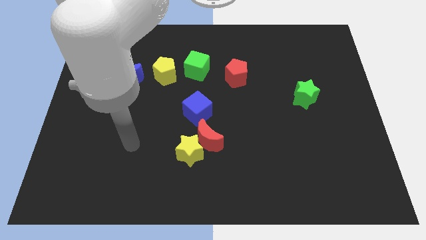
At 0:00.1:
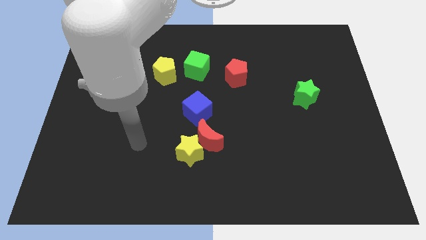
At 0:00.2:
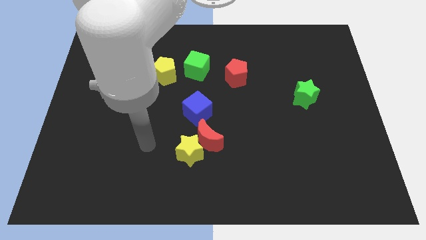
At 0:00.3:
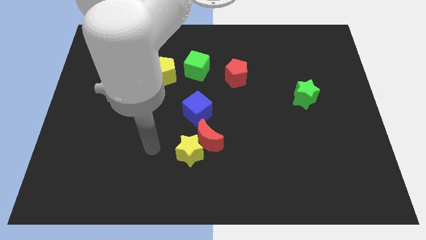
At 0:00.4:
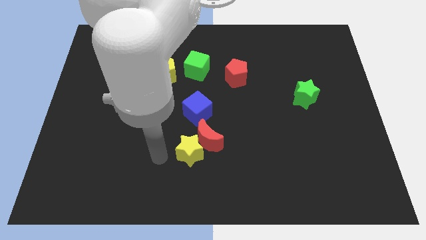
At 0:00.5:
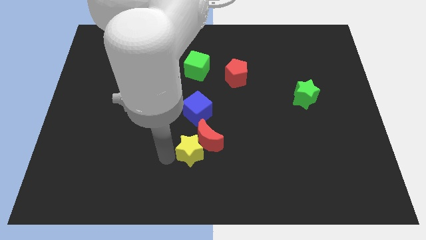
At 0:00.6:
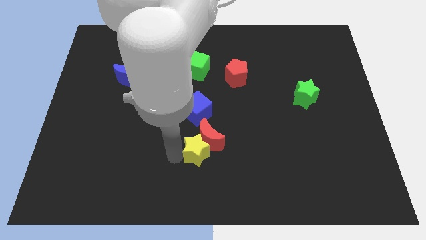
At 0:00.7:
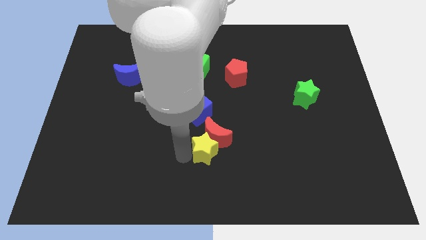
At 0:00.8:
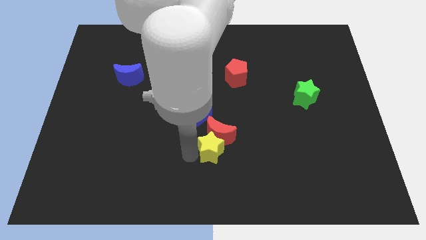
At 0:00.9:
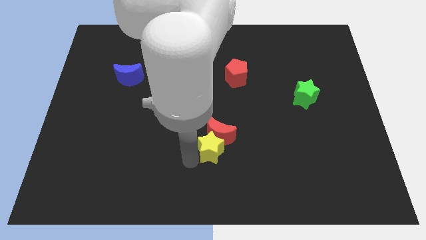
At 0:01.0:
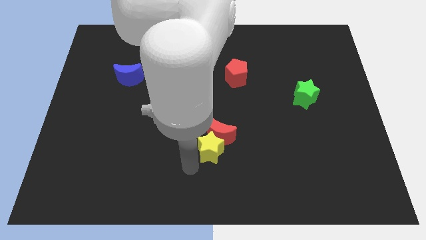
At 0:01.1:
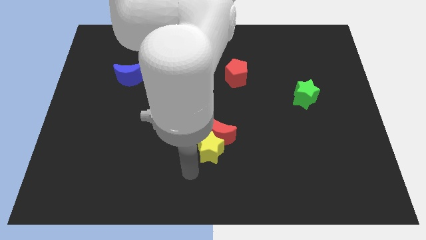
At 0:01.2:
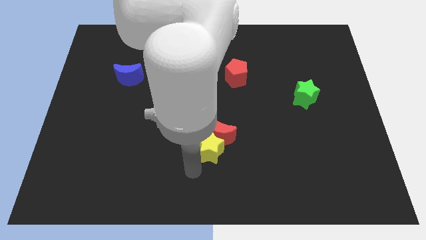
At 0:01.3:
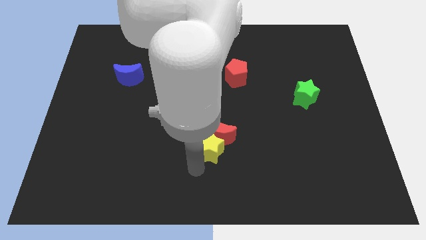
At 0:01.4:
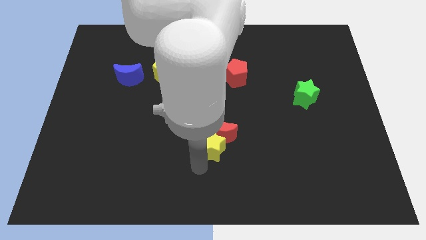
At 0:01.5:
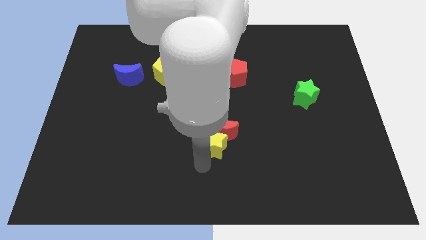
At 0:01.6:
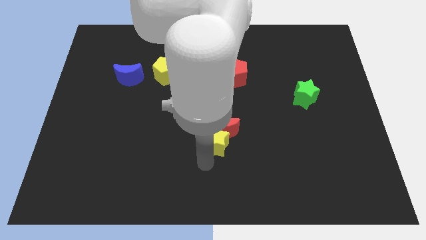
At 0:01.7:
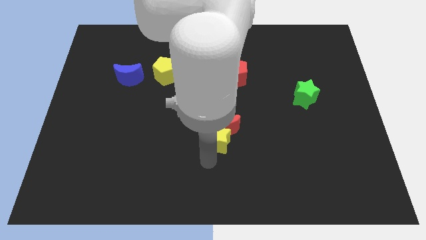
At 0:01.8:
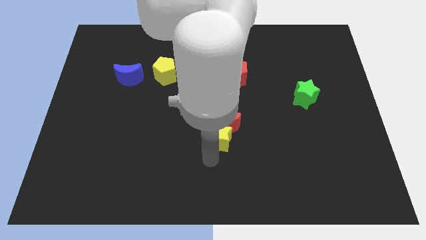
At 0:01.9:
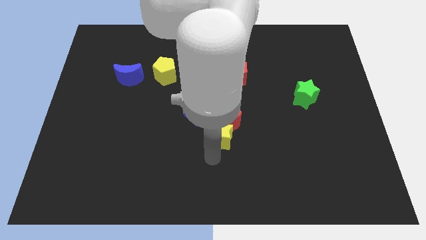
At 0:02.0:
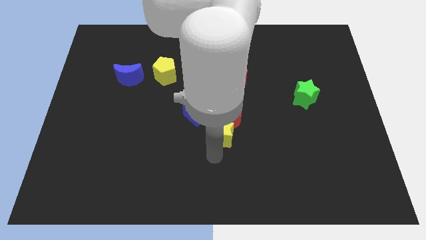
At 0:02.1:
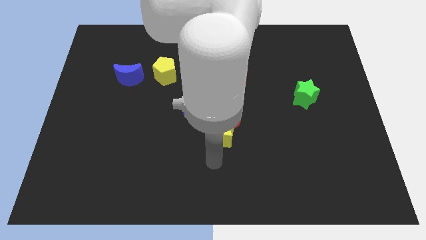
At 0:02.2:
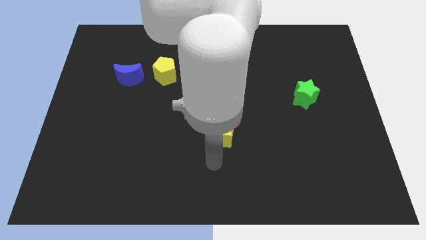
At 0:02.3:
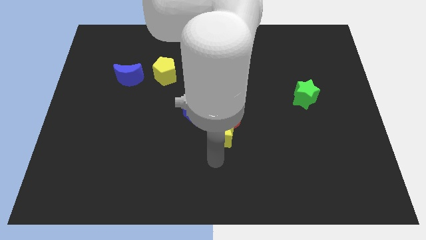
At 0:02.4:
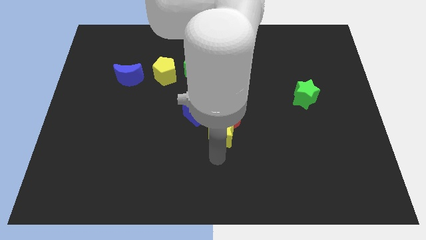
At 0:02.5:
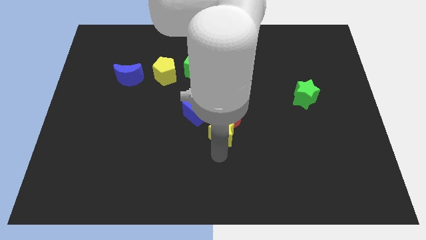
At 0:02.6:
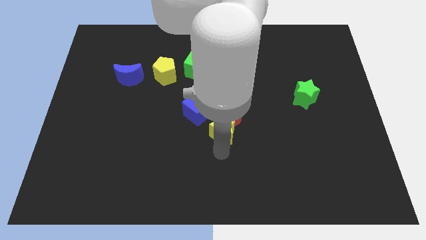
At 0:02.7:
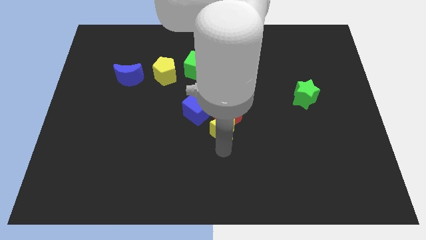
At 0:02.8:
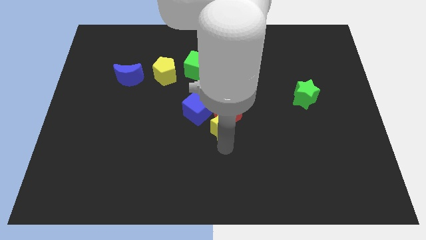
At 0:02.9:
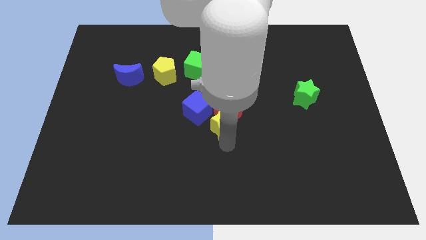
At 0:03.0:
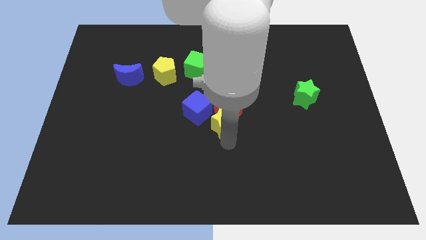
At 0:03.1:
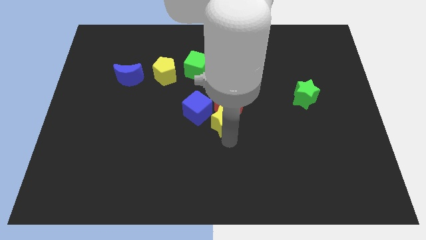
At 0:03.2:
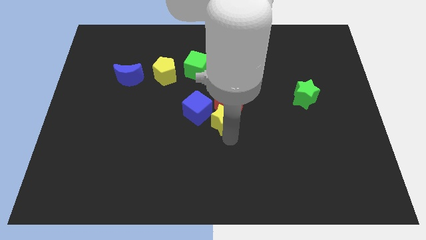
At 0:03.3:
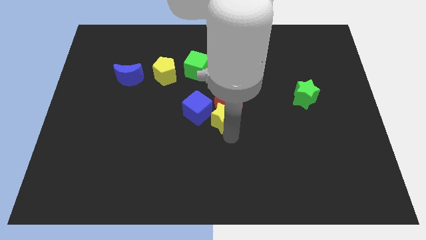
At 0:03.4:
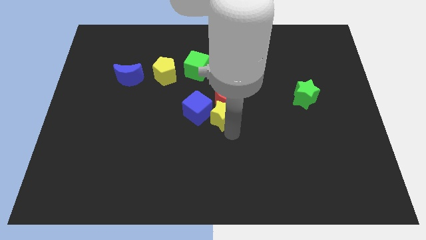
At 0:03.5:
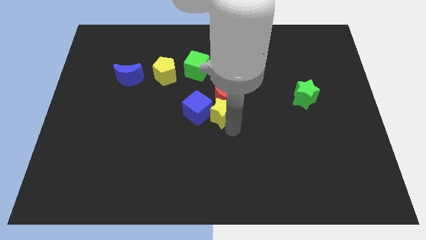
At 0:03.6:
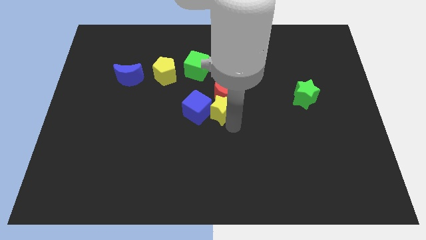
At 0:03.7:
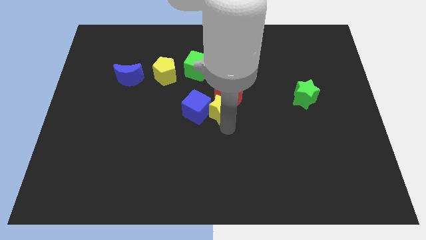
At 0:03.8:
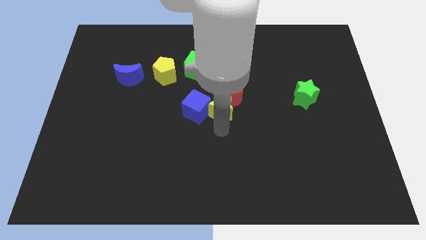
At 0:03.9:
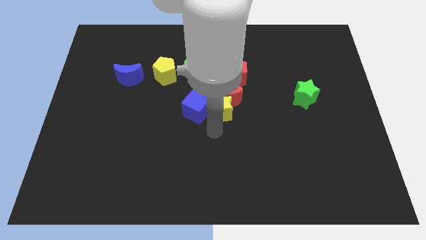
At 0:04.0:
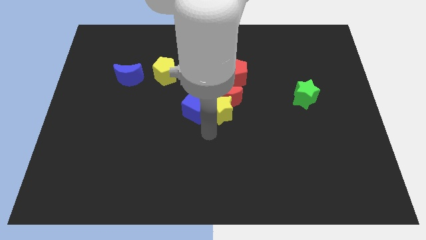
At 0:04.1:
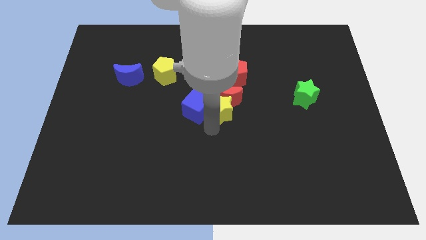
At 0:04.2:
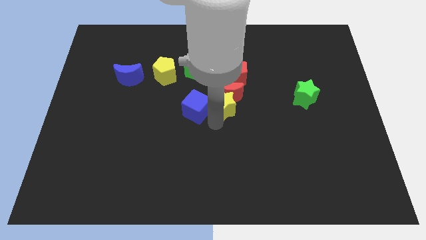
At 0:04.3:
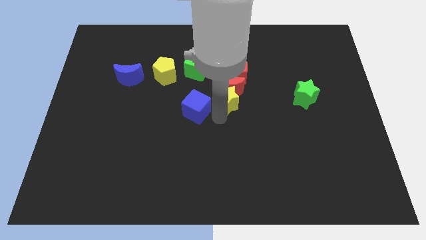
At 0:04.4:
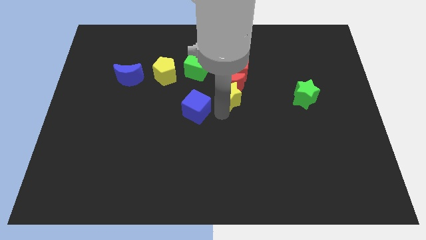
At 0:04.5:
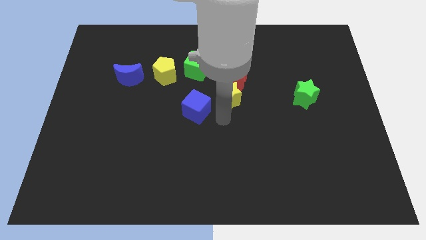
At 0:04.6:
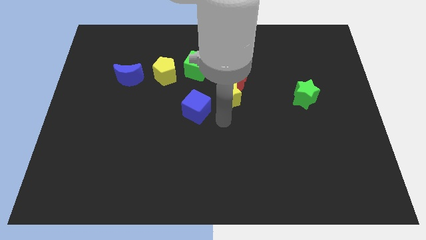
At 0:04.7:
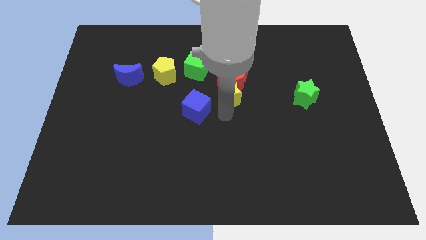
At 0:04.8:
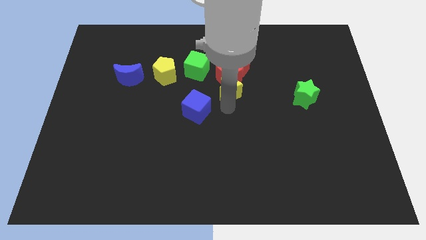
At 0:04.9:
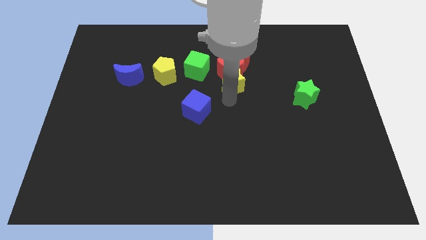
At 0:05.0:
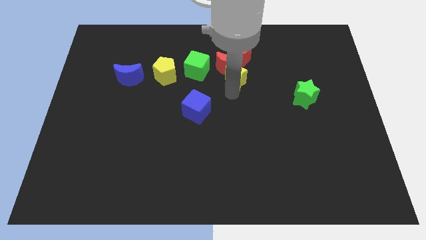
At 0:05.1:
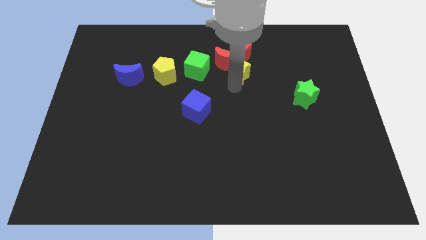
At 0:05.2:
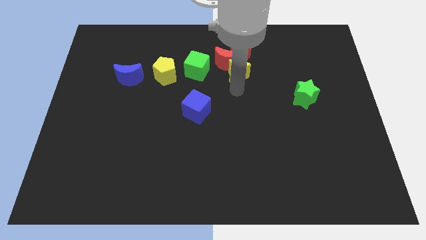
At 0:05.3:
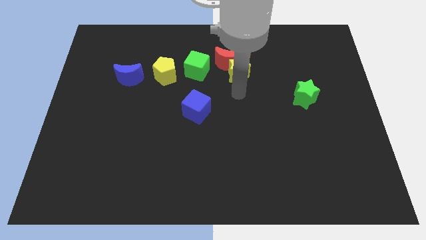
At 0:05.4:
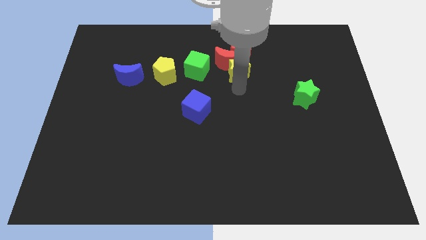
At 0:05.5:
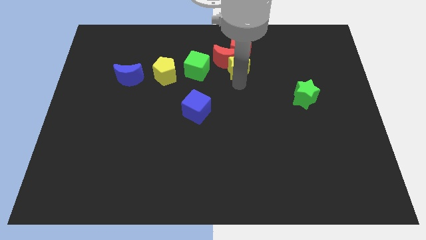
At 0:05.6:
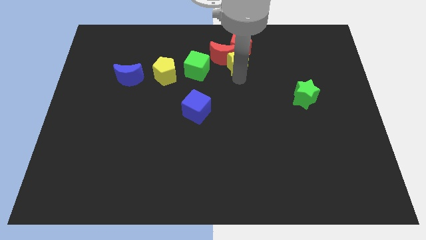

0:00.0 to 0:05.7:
slide the yellow star towards the red pentagon

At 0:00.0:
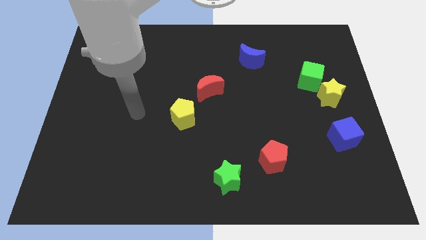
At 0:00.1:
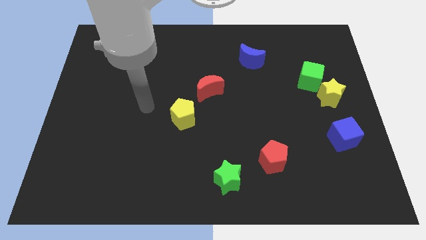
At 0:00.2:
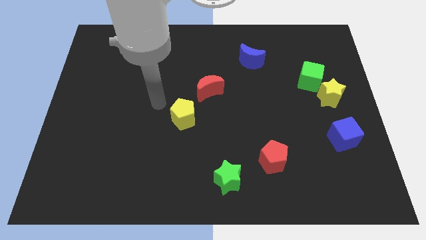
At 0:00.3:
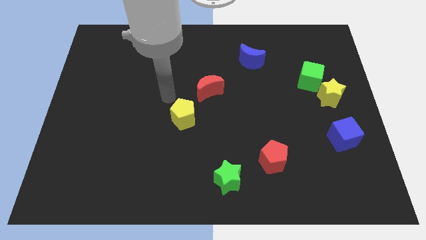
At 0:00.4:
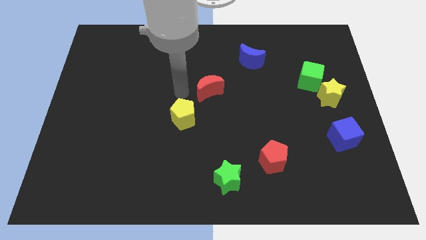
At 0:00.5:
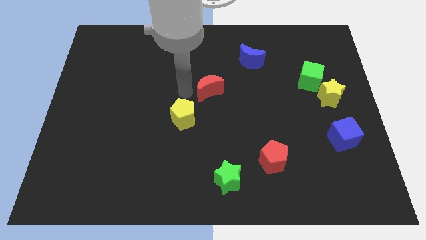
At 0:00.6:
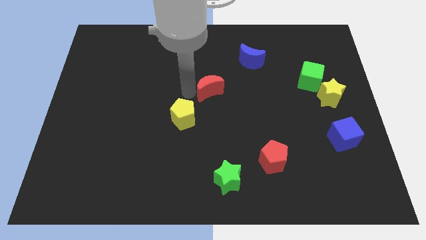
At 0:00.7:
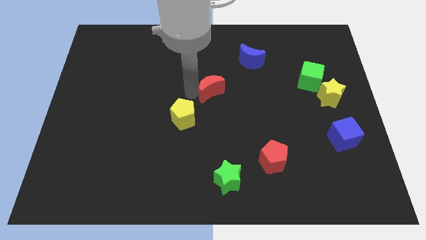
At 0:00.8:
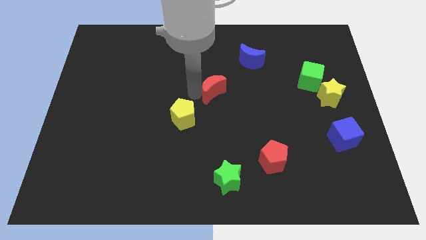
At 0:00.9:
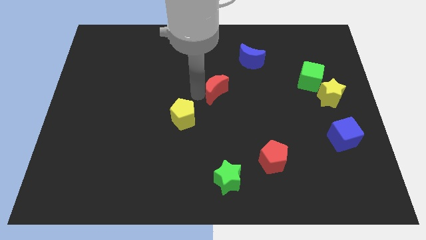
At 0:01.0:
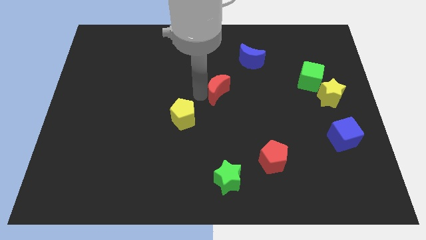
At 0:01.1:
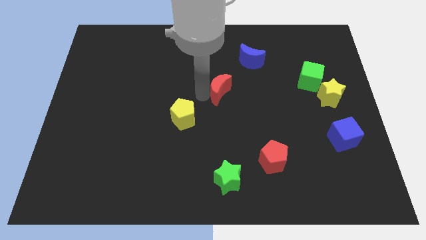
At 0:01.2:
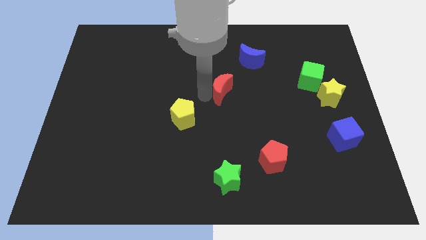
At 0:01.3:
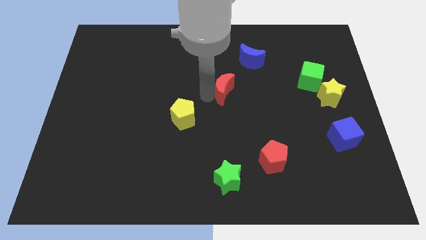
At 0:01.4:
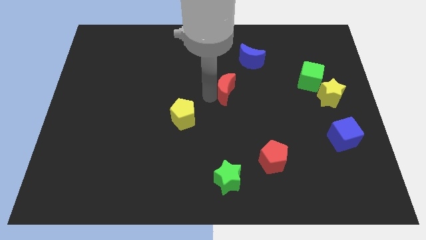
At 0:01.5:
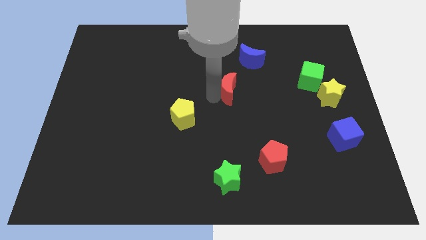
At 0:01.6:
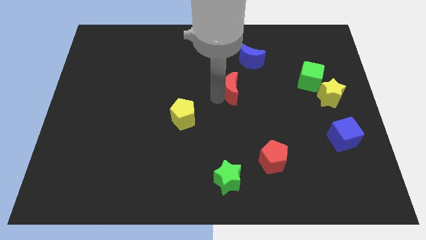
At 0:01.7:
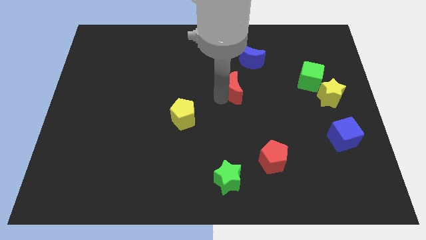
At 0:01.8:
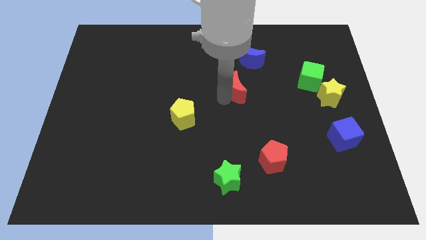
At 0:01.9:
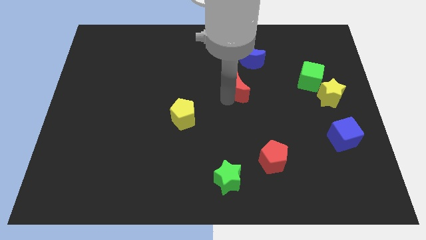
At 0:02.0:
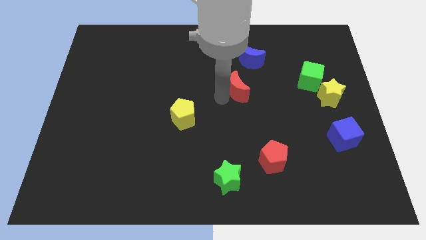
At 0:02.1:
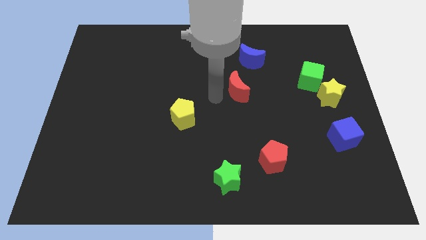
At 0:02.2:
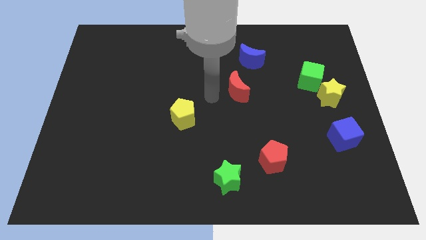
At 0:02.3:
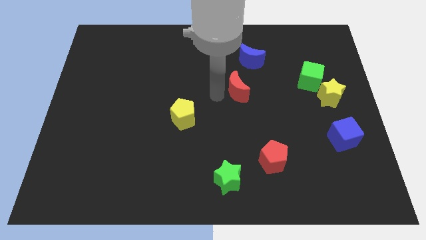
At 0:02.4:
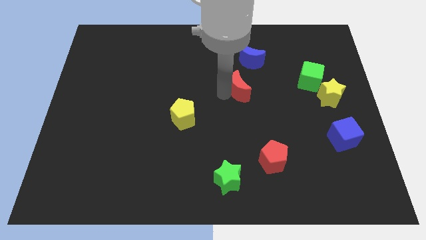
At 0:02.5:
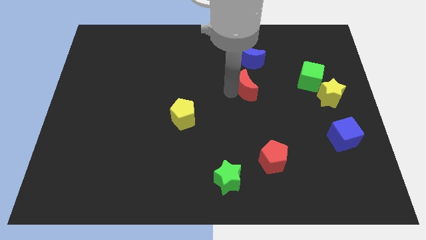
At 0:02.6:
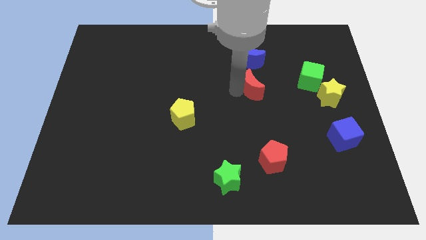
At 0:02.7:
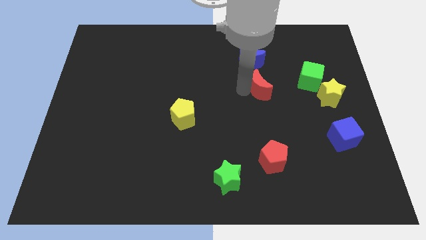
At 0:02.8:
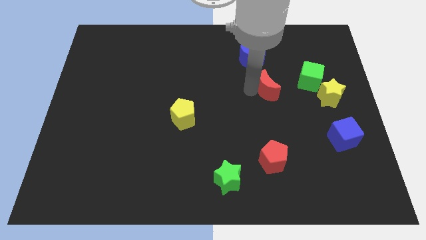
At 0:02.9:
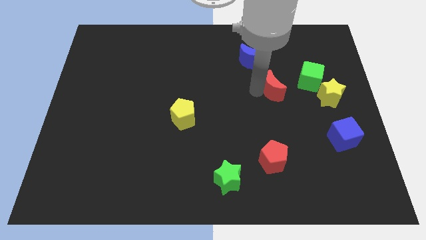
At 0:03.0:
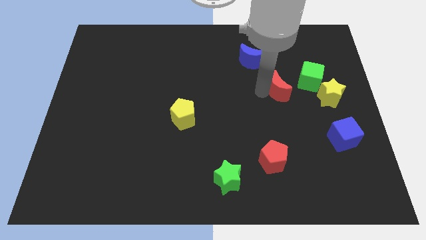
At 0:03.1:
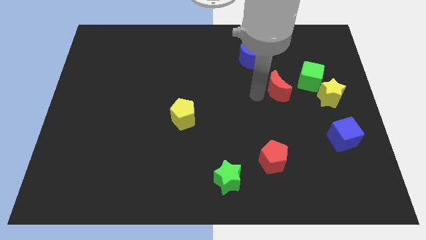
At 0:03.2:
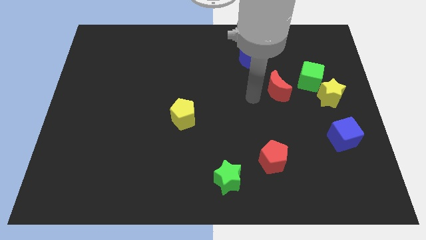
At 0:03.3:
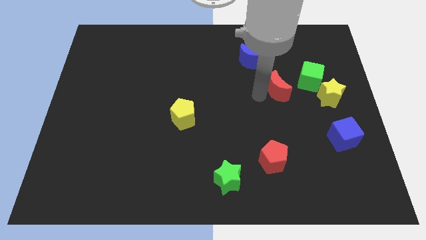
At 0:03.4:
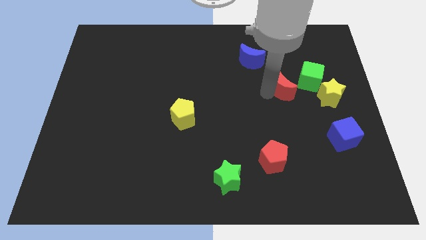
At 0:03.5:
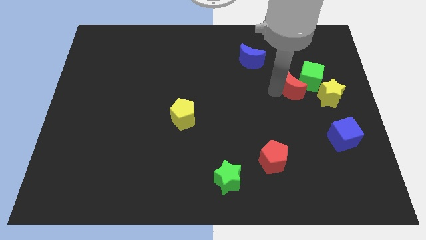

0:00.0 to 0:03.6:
push the red moon next to the green cube
